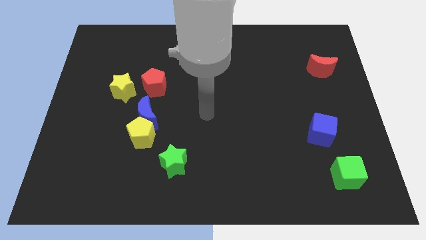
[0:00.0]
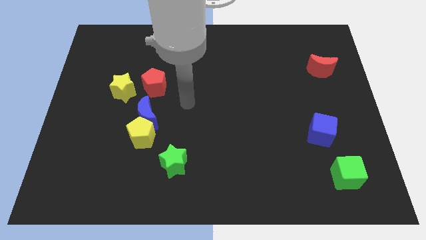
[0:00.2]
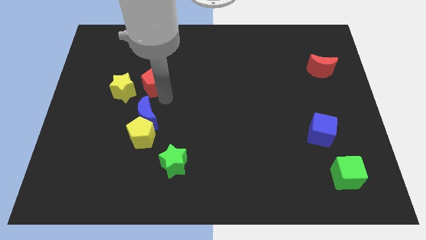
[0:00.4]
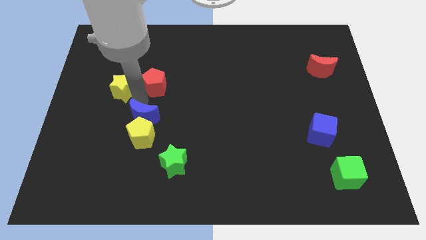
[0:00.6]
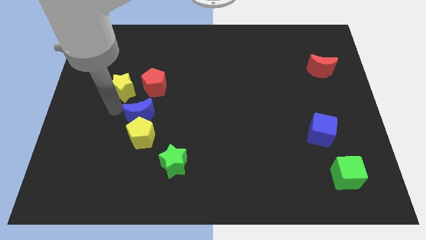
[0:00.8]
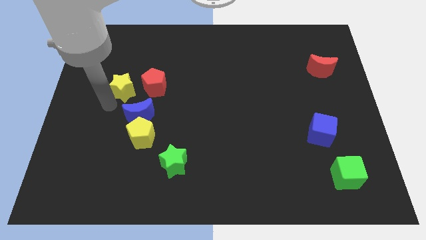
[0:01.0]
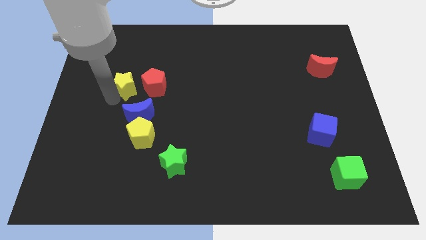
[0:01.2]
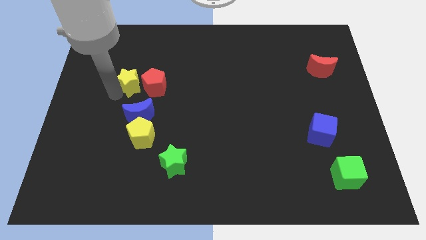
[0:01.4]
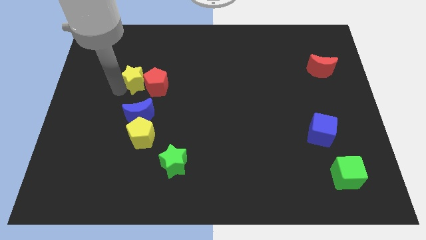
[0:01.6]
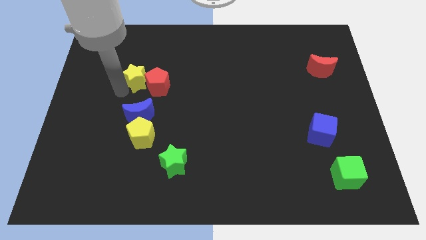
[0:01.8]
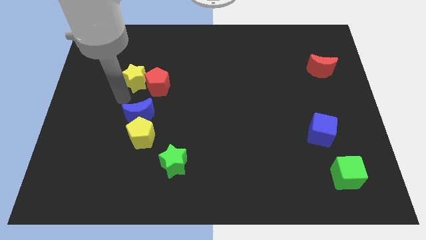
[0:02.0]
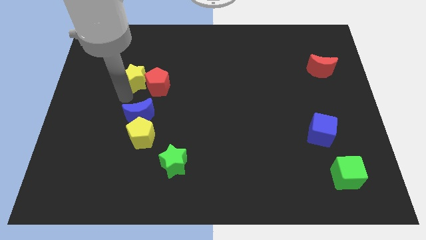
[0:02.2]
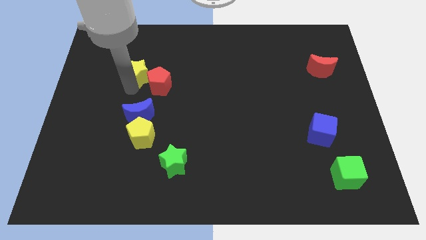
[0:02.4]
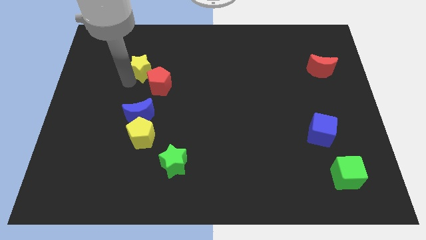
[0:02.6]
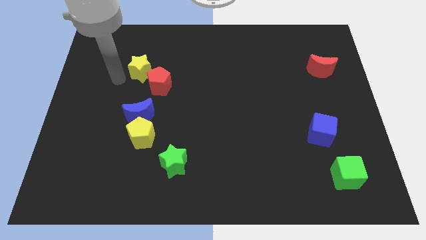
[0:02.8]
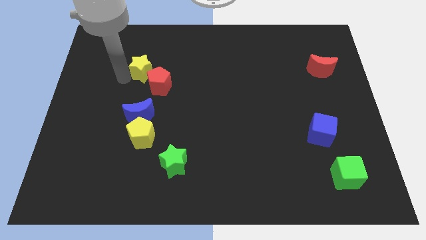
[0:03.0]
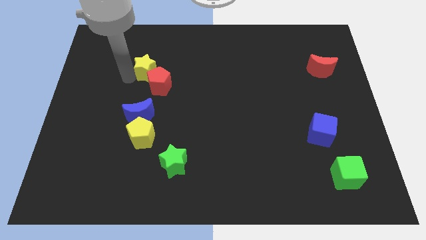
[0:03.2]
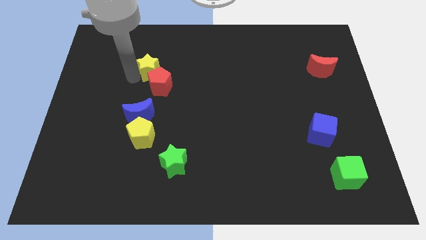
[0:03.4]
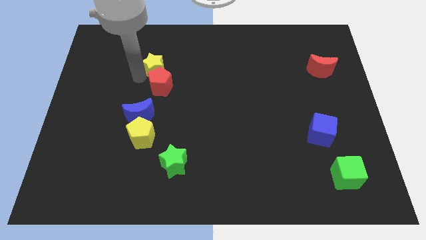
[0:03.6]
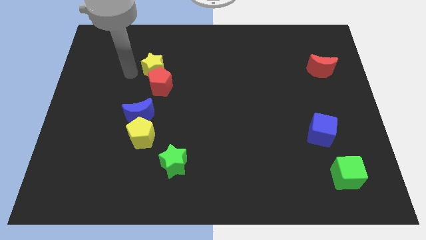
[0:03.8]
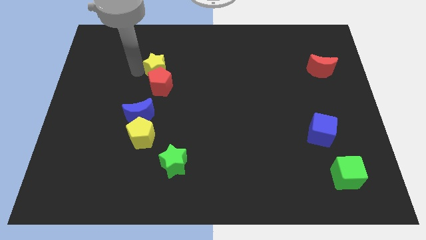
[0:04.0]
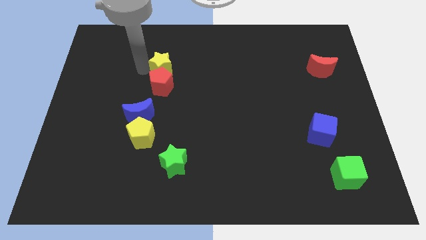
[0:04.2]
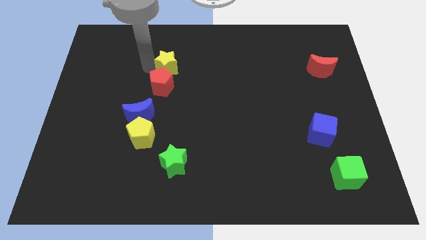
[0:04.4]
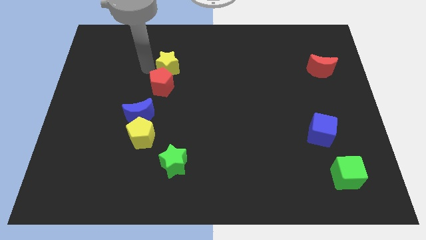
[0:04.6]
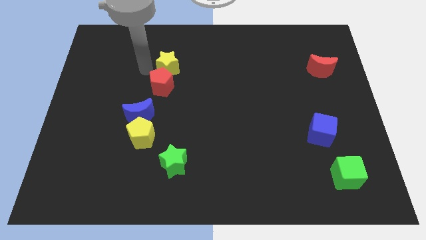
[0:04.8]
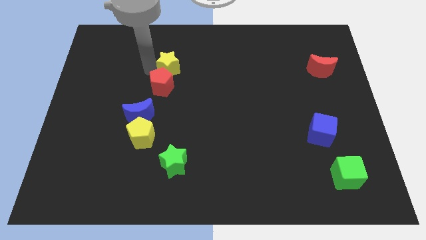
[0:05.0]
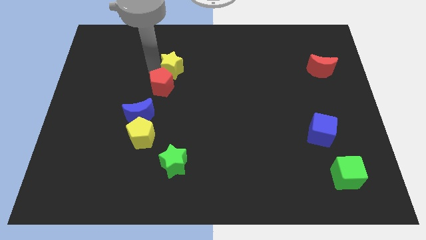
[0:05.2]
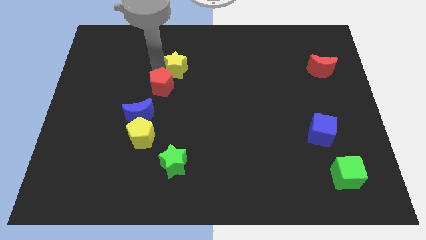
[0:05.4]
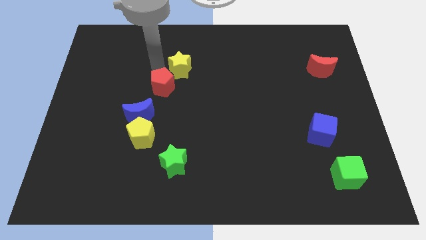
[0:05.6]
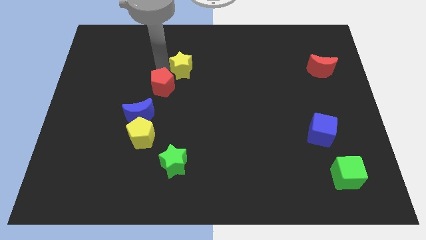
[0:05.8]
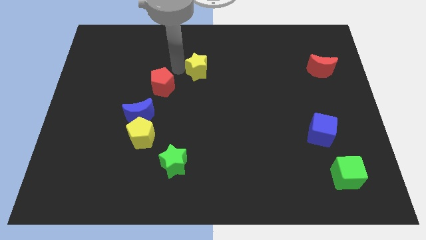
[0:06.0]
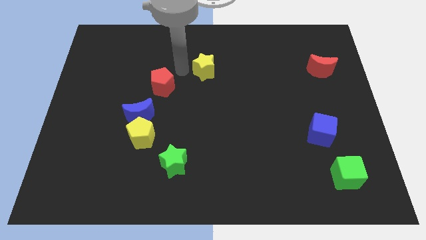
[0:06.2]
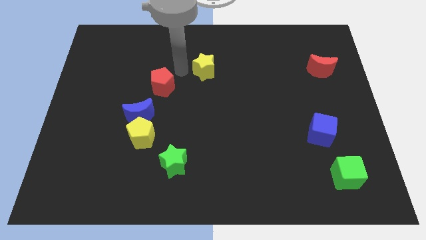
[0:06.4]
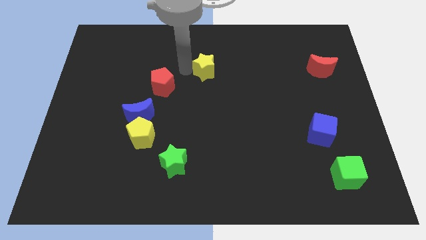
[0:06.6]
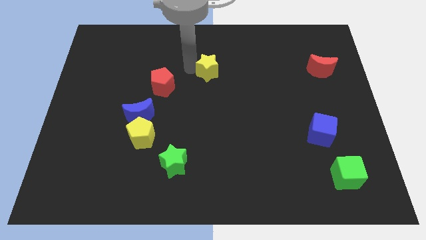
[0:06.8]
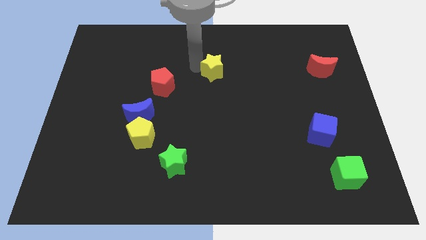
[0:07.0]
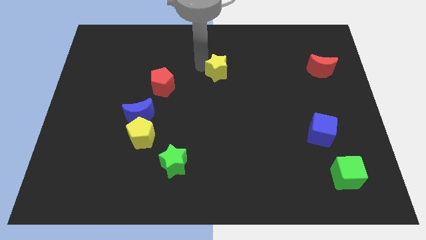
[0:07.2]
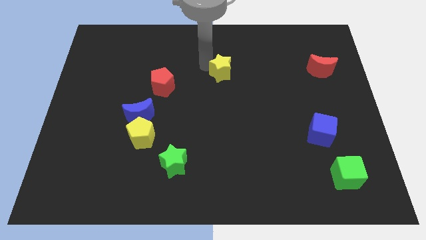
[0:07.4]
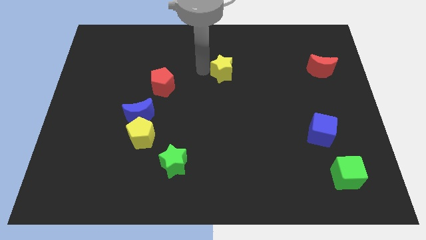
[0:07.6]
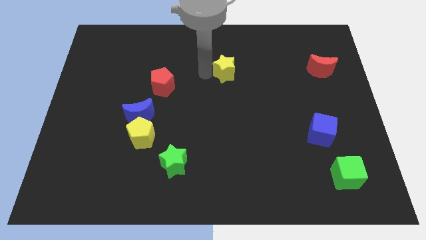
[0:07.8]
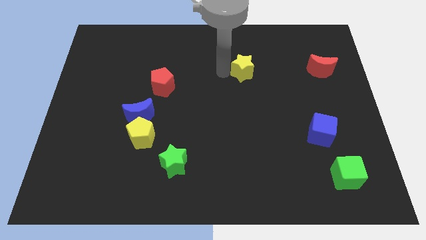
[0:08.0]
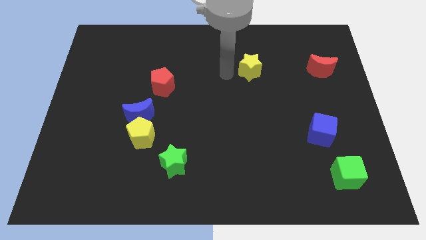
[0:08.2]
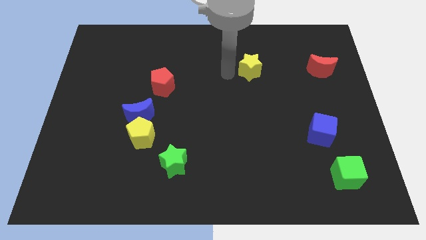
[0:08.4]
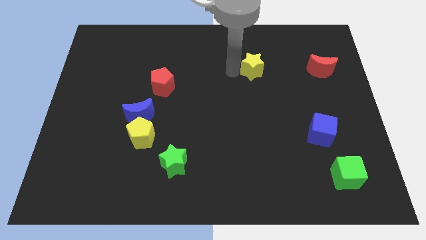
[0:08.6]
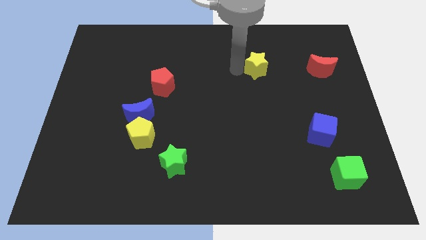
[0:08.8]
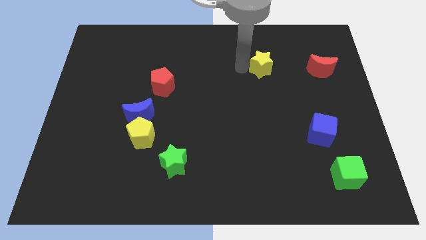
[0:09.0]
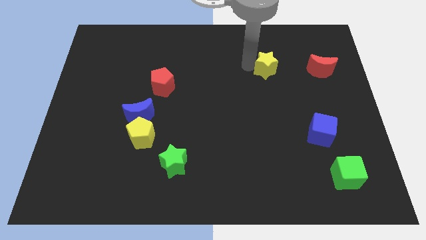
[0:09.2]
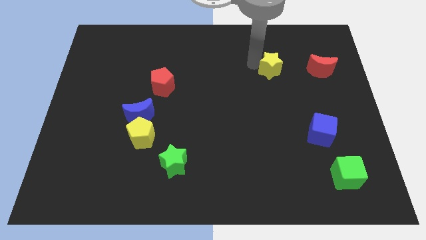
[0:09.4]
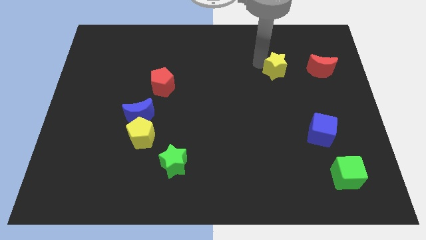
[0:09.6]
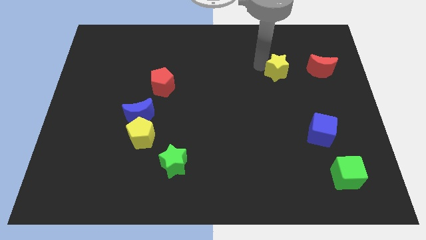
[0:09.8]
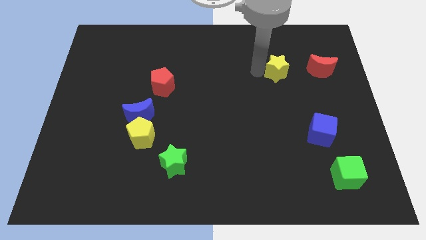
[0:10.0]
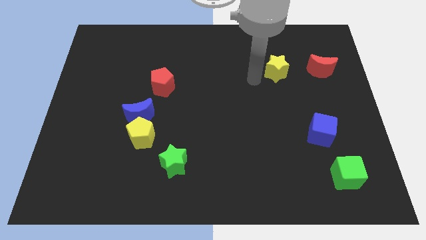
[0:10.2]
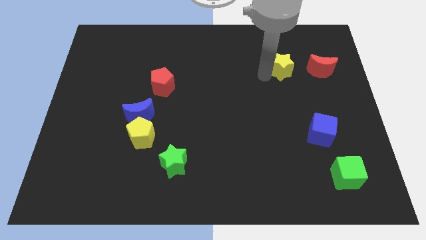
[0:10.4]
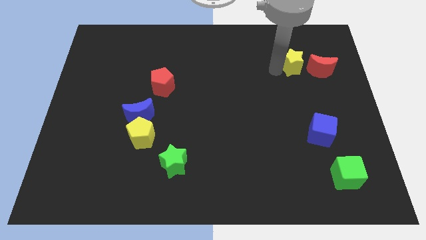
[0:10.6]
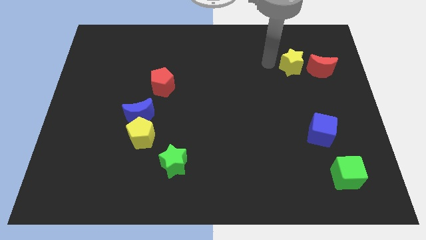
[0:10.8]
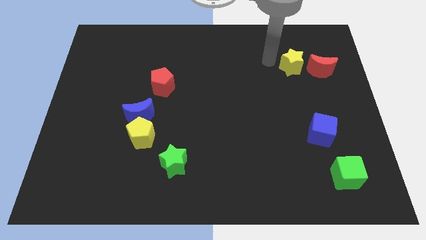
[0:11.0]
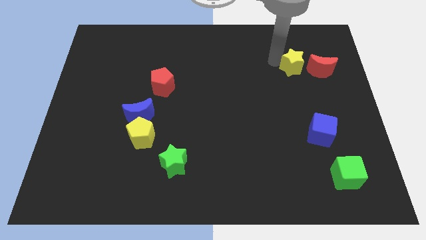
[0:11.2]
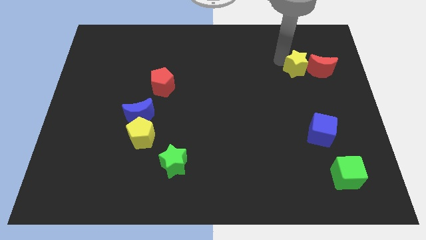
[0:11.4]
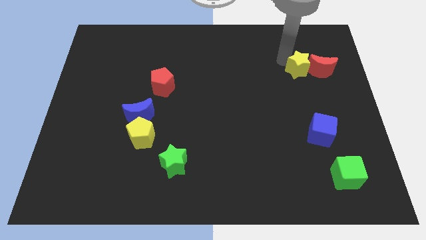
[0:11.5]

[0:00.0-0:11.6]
push the yellow star to the red moon

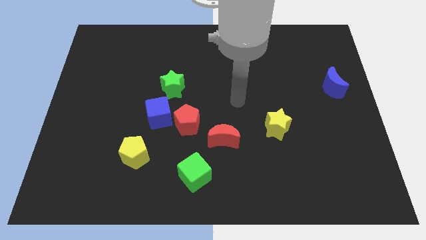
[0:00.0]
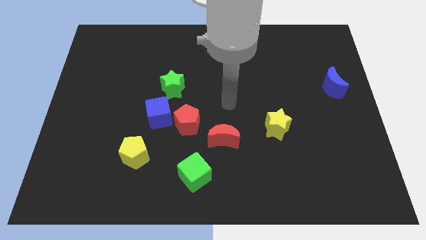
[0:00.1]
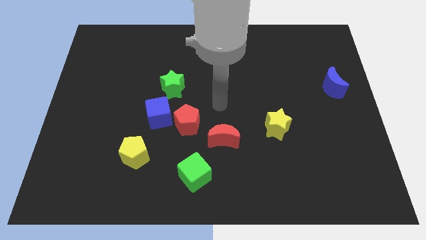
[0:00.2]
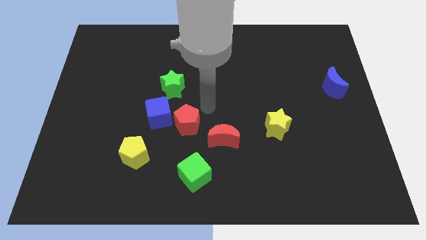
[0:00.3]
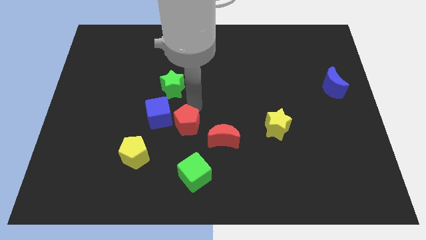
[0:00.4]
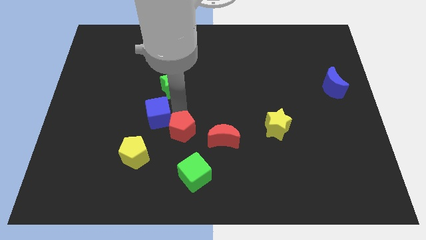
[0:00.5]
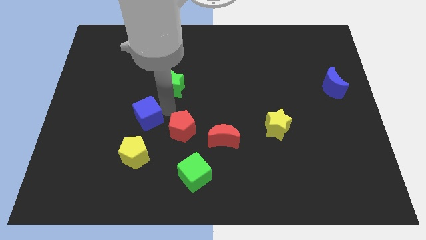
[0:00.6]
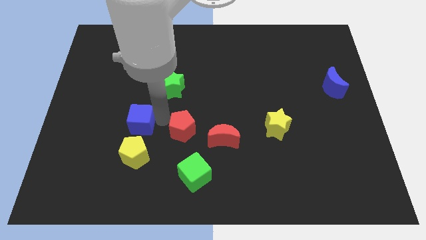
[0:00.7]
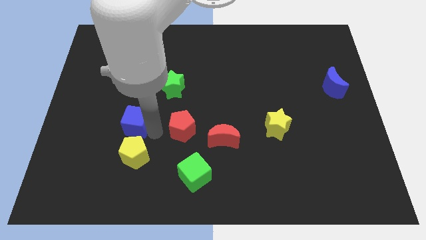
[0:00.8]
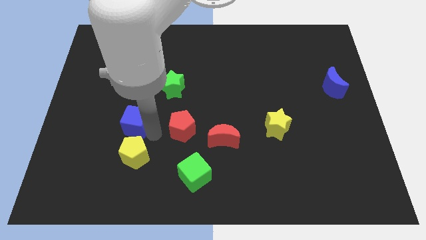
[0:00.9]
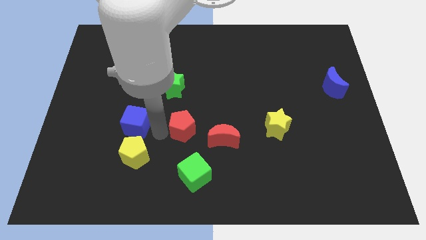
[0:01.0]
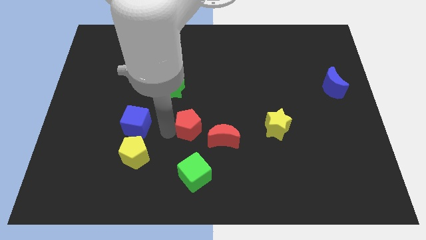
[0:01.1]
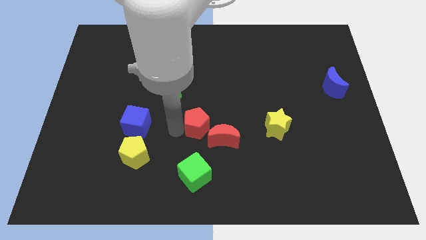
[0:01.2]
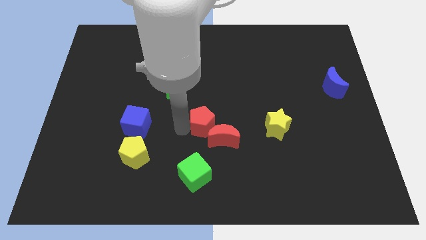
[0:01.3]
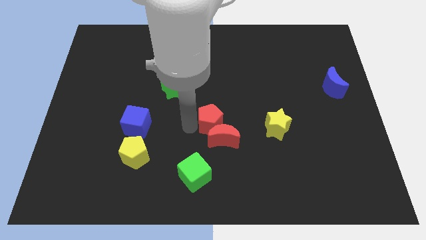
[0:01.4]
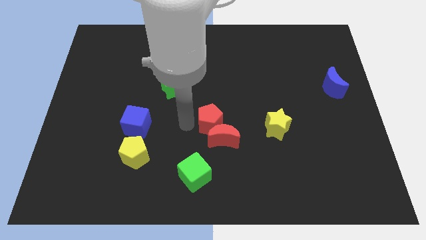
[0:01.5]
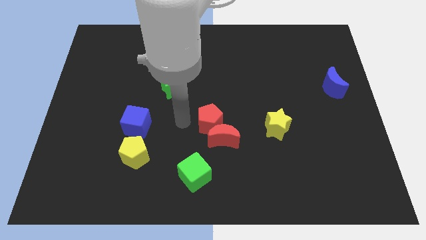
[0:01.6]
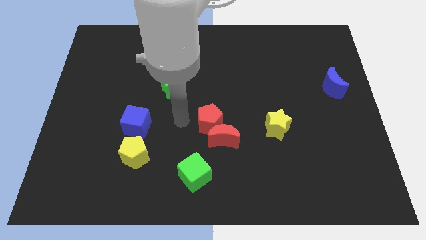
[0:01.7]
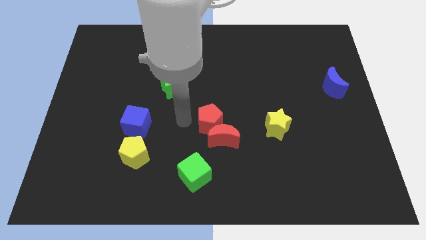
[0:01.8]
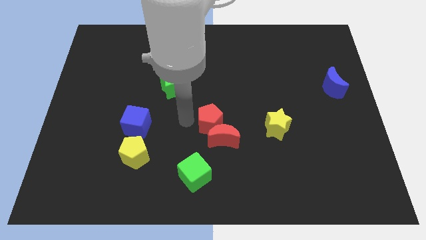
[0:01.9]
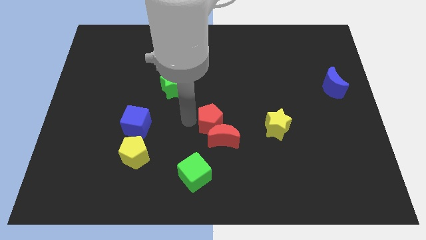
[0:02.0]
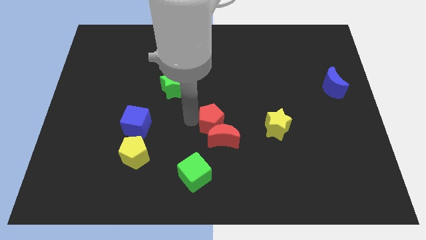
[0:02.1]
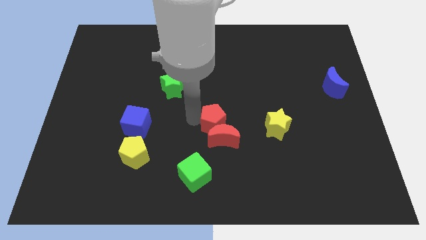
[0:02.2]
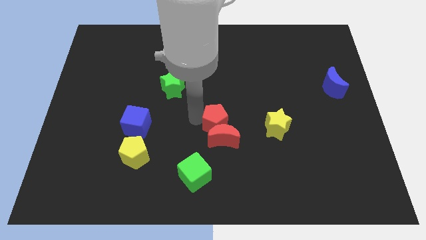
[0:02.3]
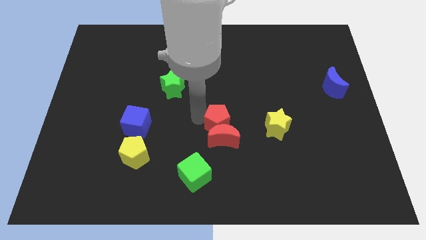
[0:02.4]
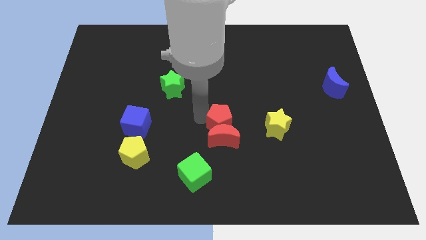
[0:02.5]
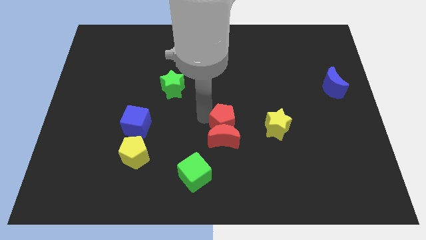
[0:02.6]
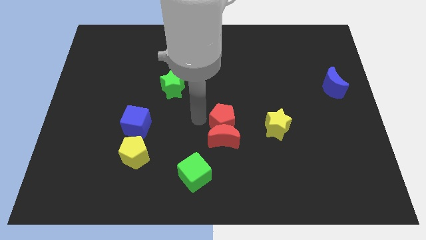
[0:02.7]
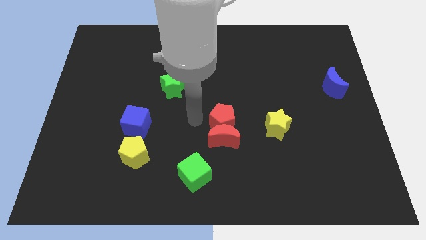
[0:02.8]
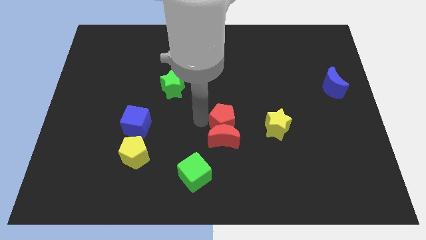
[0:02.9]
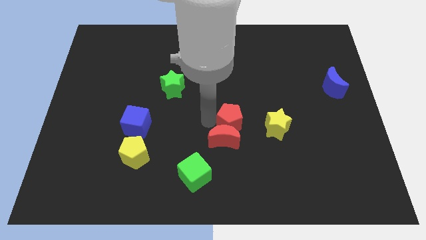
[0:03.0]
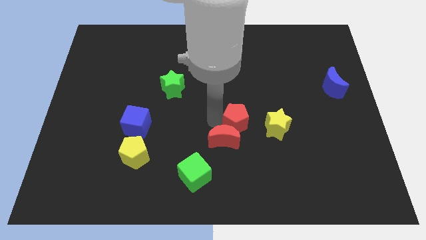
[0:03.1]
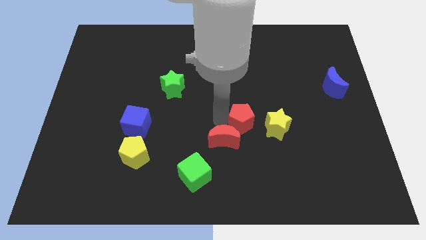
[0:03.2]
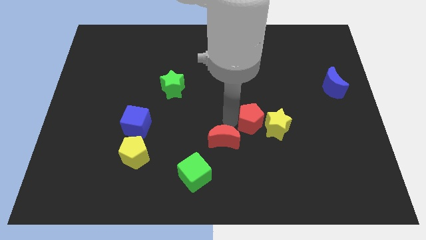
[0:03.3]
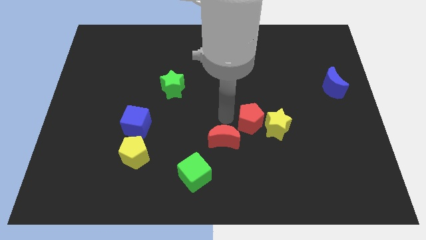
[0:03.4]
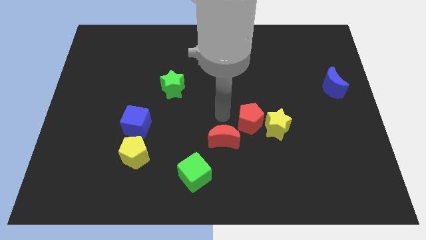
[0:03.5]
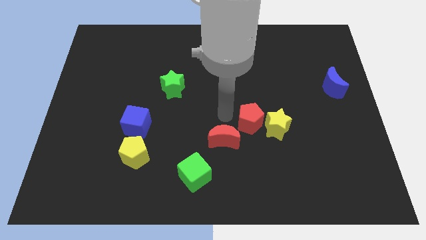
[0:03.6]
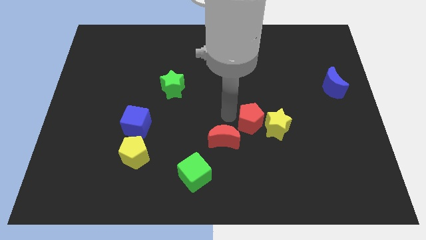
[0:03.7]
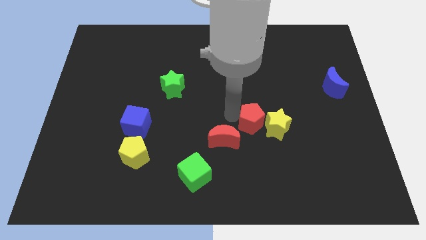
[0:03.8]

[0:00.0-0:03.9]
slide the red pentagon close to the yellow star
